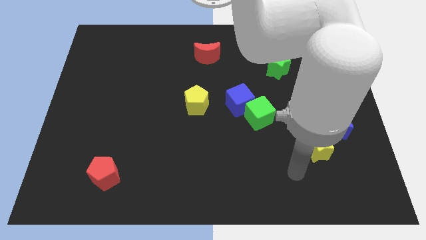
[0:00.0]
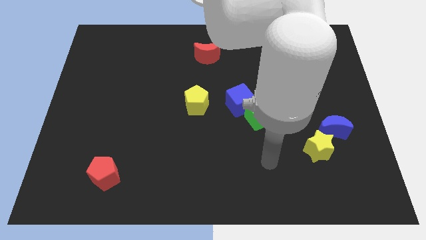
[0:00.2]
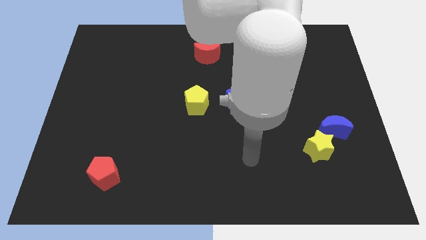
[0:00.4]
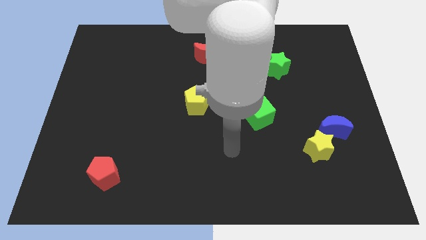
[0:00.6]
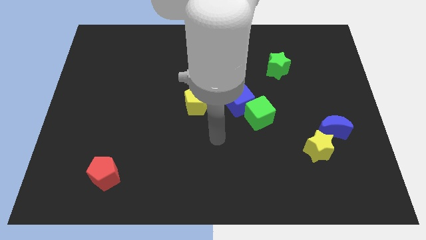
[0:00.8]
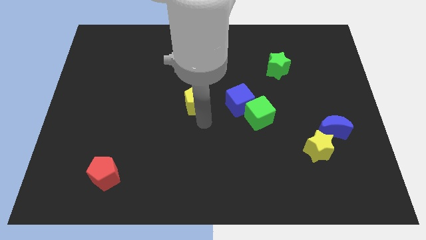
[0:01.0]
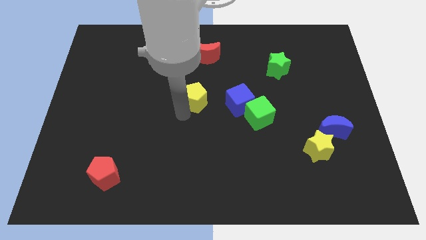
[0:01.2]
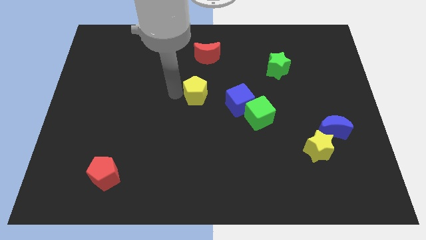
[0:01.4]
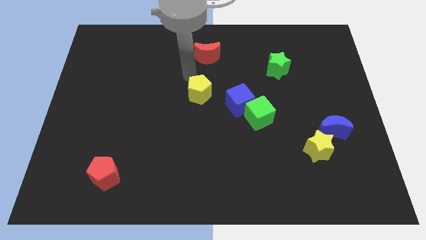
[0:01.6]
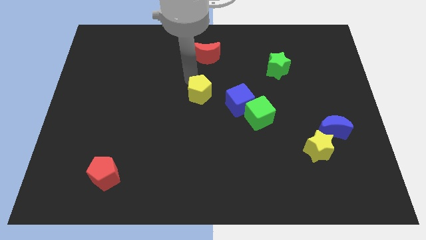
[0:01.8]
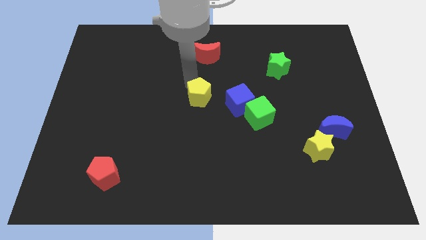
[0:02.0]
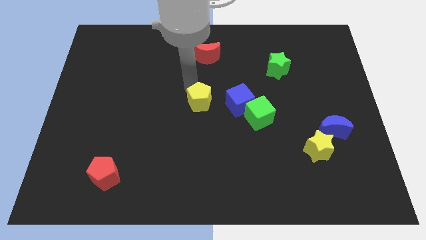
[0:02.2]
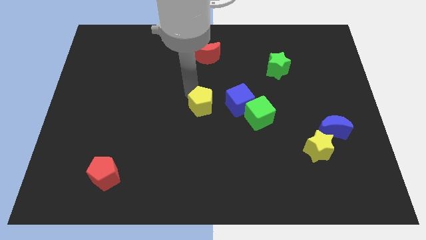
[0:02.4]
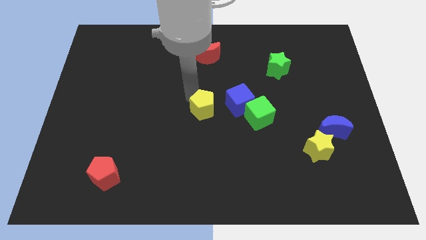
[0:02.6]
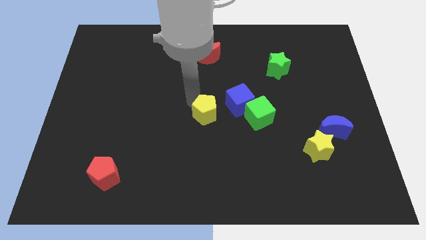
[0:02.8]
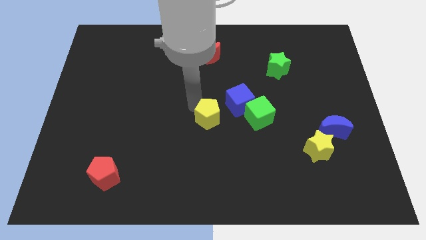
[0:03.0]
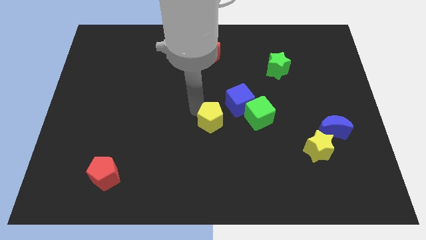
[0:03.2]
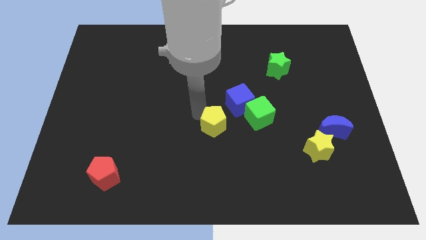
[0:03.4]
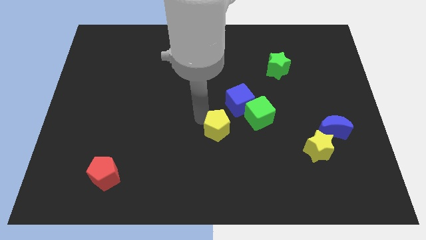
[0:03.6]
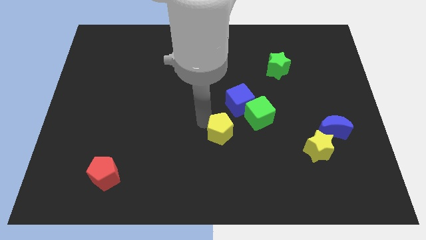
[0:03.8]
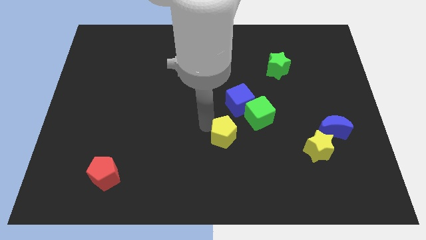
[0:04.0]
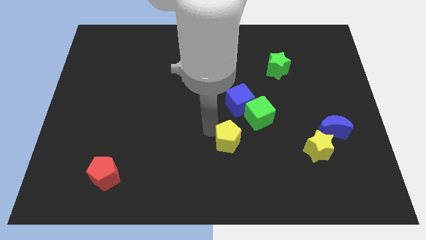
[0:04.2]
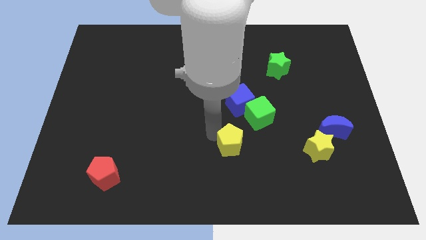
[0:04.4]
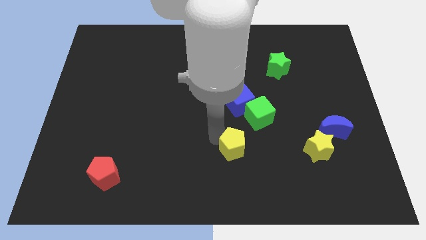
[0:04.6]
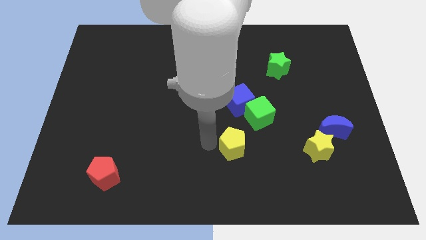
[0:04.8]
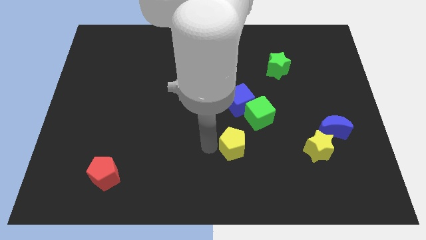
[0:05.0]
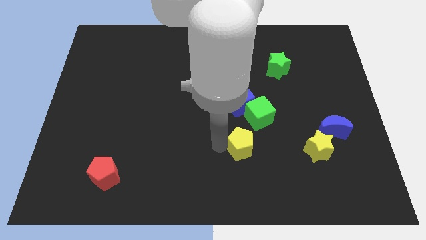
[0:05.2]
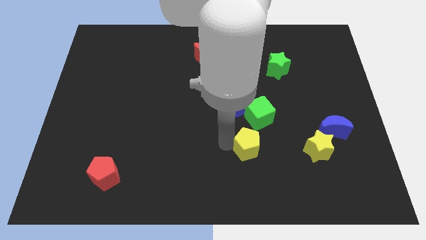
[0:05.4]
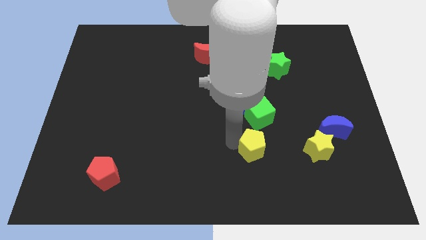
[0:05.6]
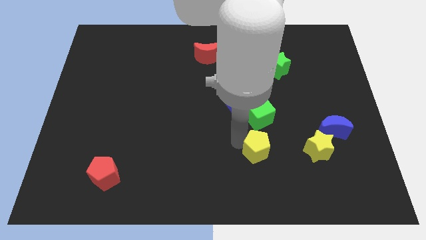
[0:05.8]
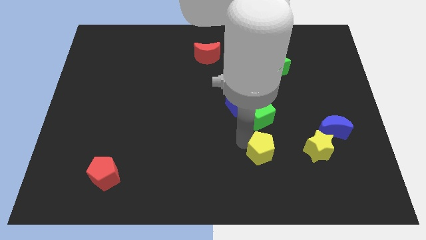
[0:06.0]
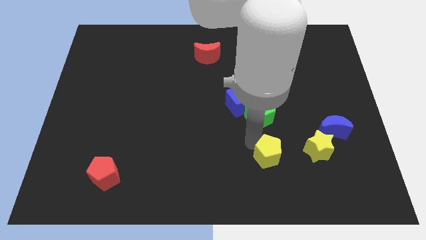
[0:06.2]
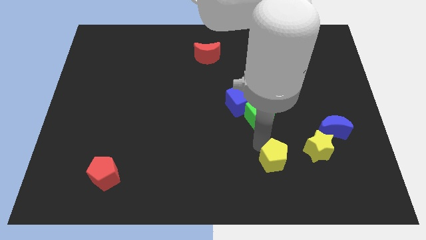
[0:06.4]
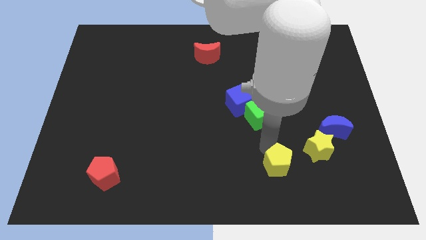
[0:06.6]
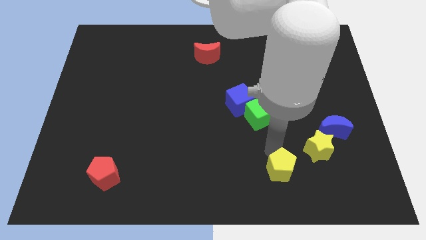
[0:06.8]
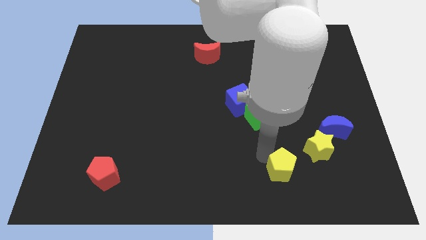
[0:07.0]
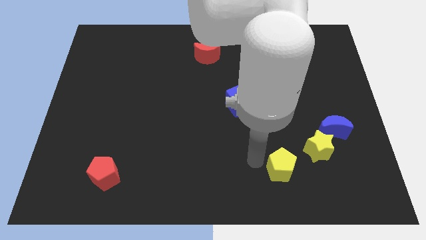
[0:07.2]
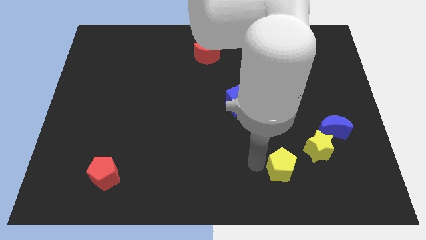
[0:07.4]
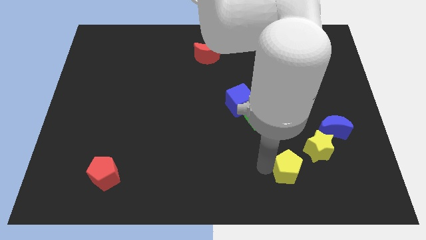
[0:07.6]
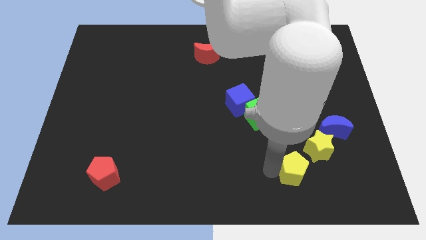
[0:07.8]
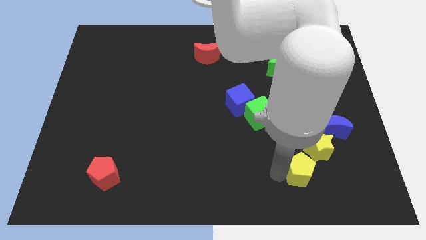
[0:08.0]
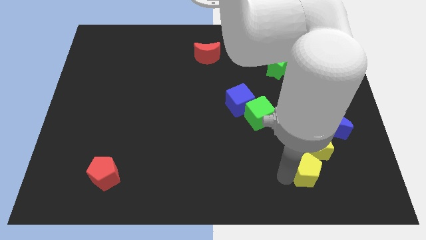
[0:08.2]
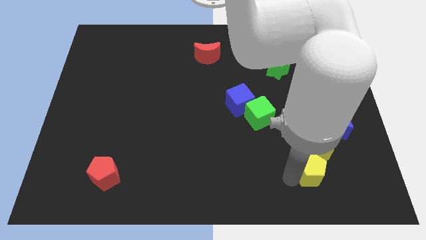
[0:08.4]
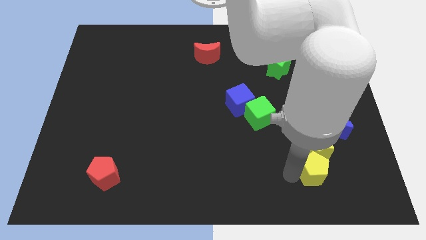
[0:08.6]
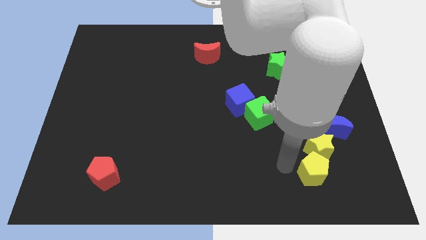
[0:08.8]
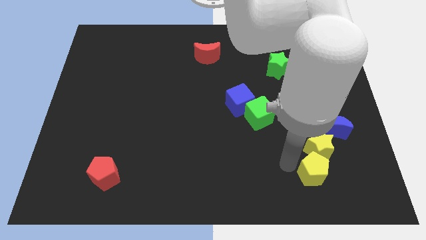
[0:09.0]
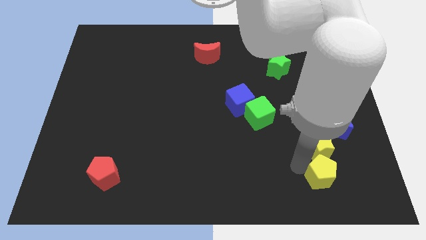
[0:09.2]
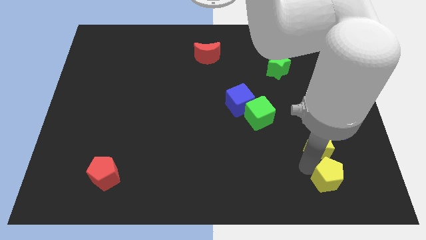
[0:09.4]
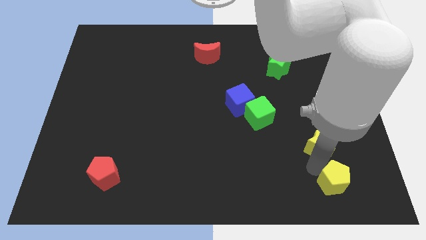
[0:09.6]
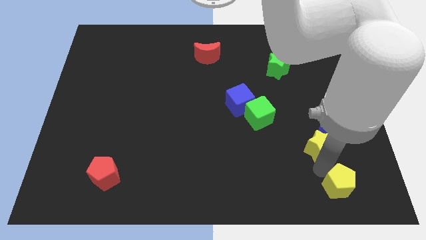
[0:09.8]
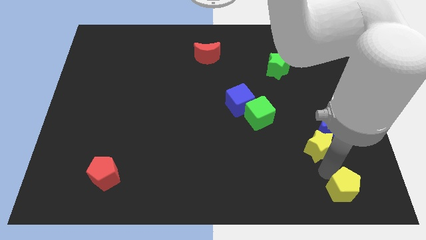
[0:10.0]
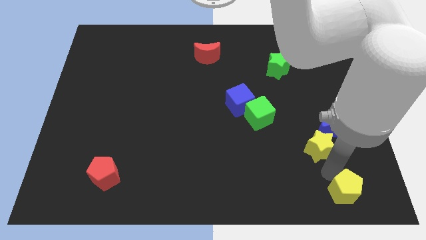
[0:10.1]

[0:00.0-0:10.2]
move the yellow pentagon to the bottom right corner

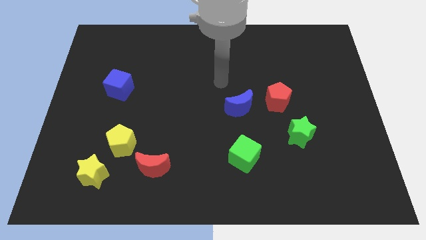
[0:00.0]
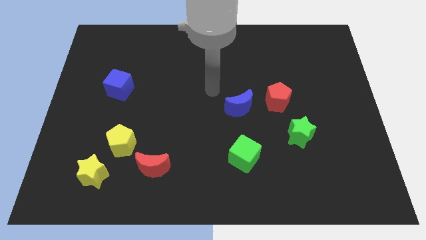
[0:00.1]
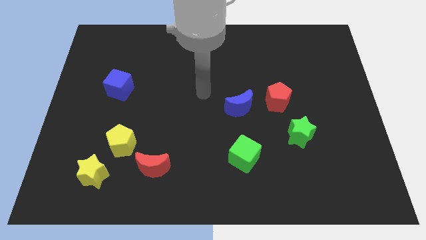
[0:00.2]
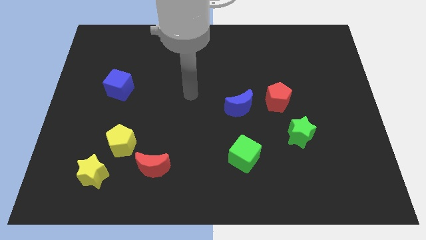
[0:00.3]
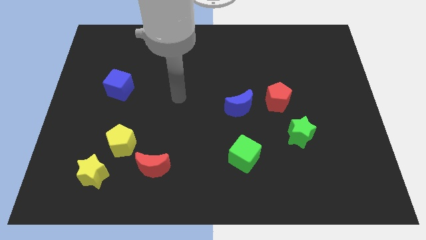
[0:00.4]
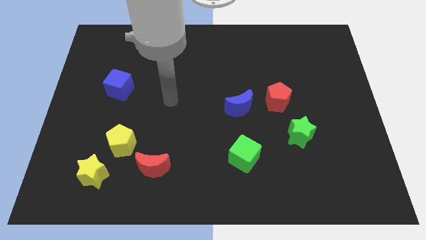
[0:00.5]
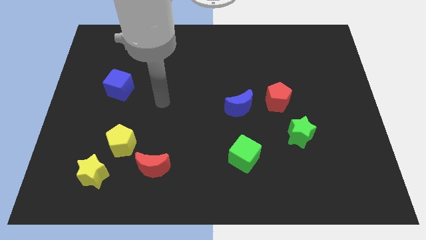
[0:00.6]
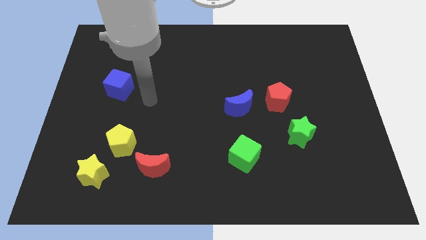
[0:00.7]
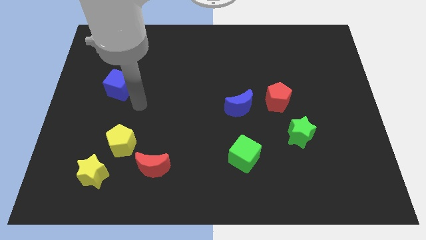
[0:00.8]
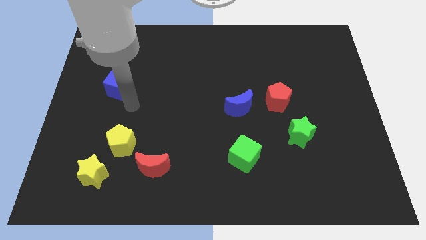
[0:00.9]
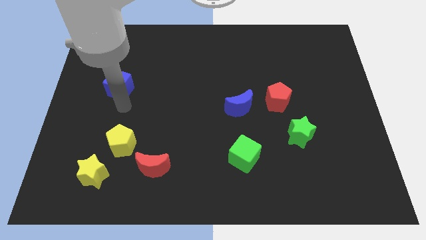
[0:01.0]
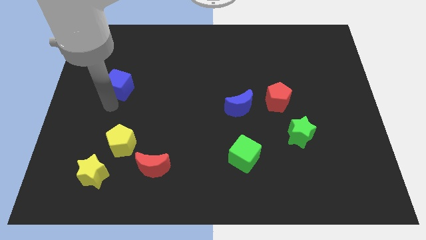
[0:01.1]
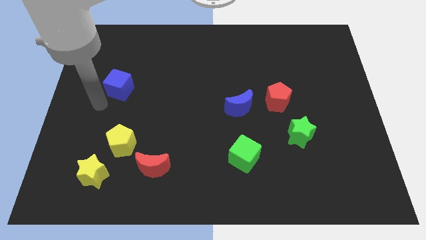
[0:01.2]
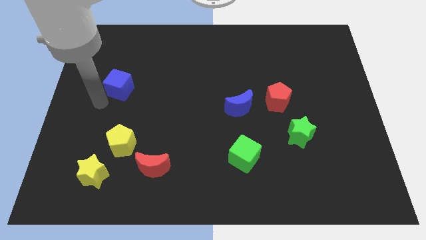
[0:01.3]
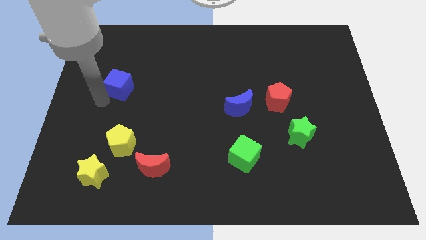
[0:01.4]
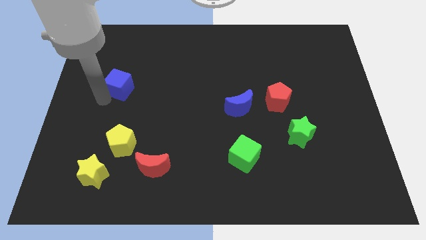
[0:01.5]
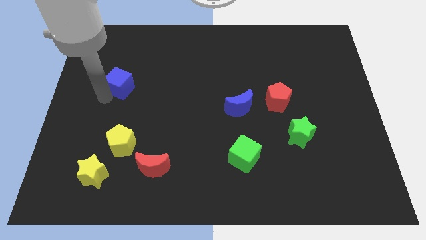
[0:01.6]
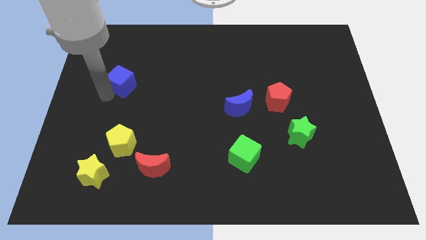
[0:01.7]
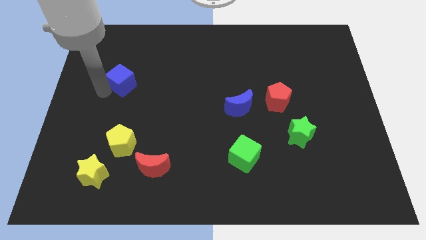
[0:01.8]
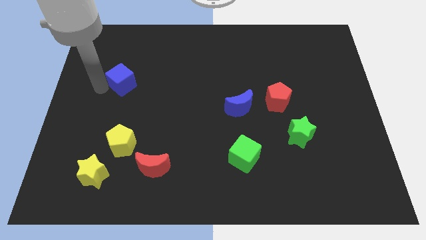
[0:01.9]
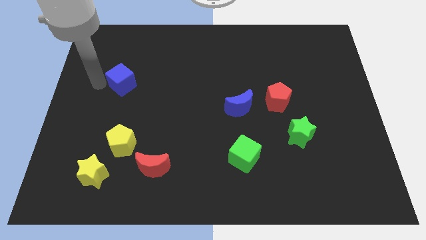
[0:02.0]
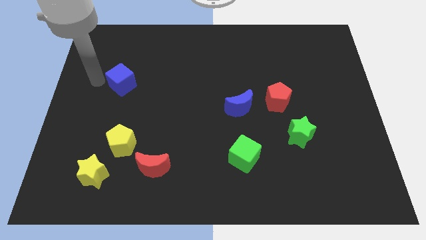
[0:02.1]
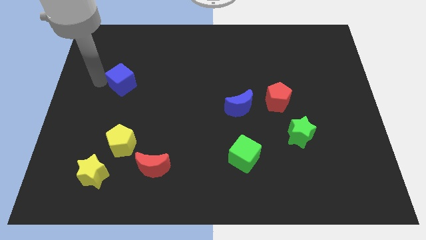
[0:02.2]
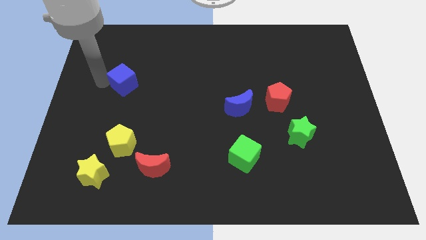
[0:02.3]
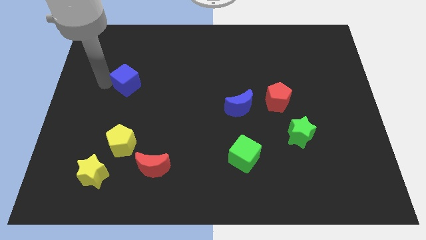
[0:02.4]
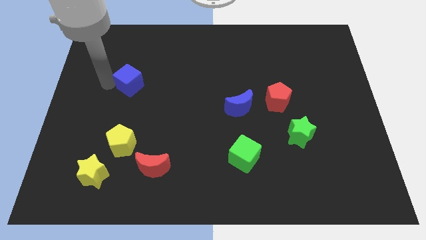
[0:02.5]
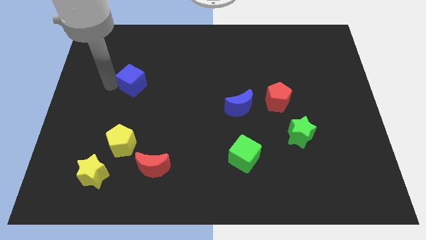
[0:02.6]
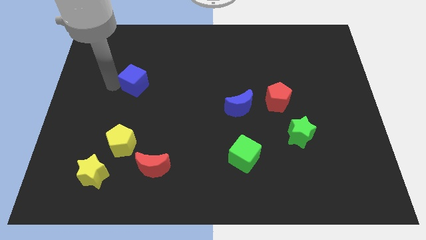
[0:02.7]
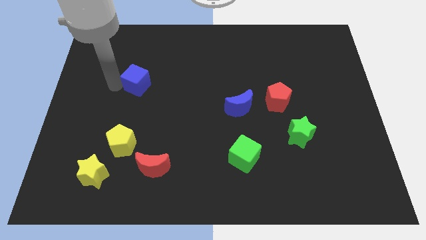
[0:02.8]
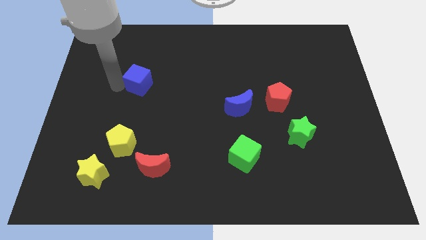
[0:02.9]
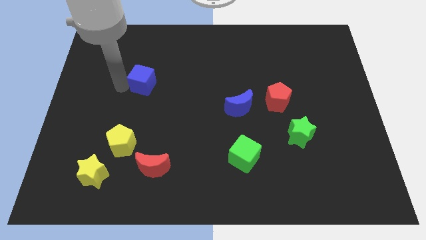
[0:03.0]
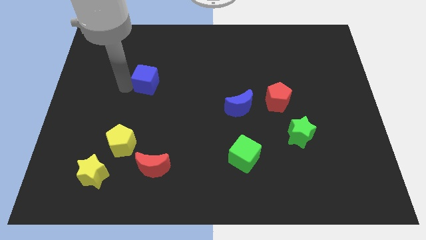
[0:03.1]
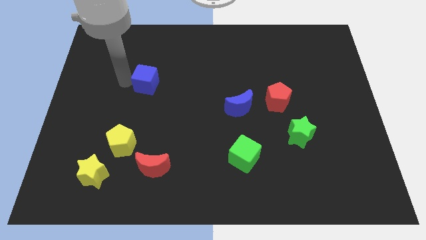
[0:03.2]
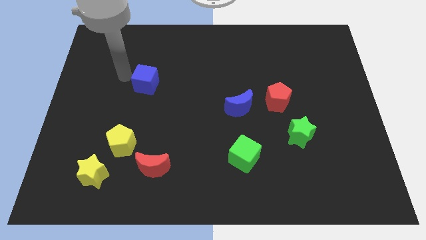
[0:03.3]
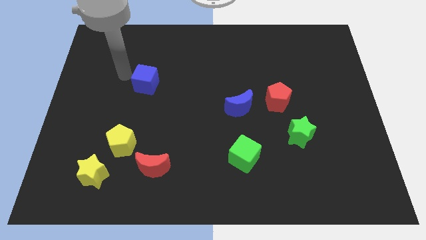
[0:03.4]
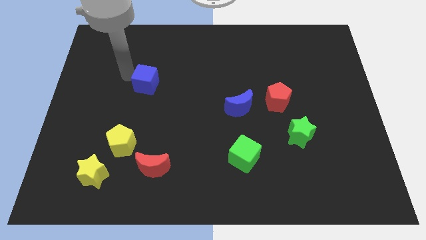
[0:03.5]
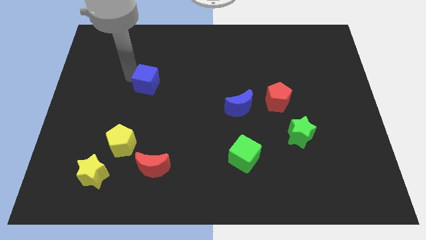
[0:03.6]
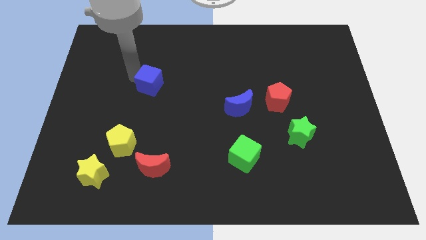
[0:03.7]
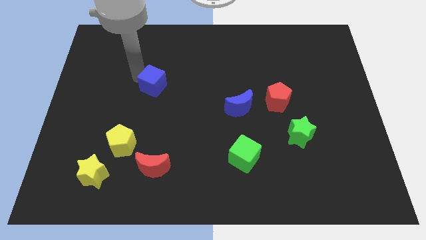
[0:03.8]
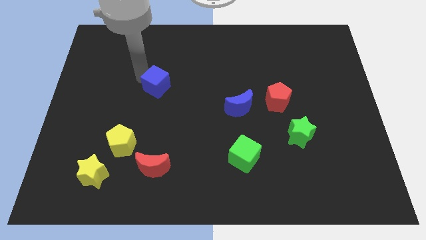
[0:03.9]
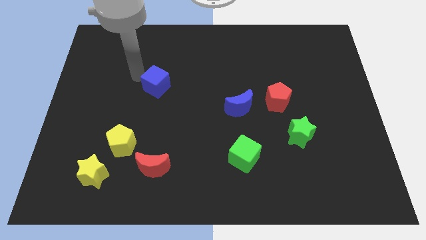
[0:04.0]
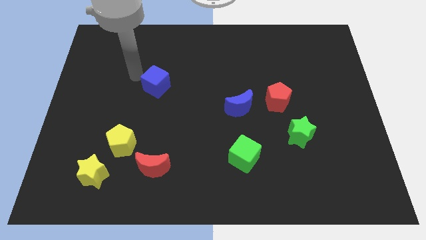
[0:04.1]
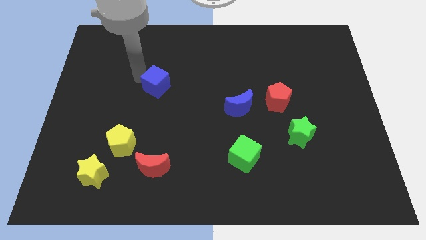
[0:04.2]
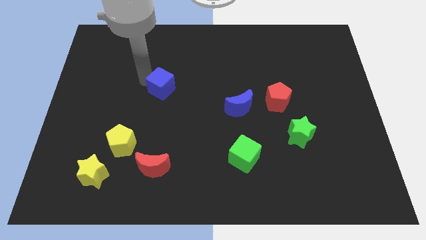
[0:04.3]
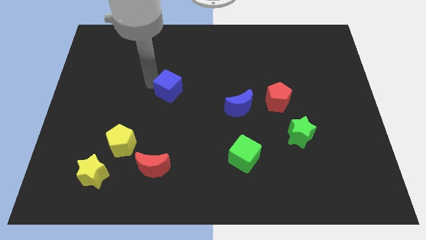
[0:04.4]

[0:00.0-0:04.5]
put the blue cube to the middle of the board
